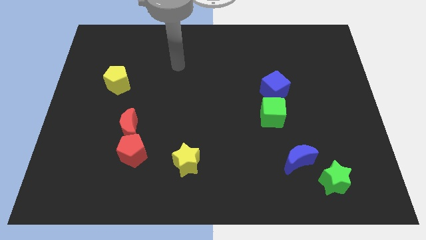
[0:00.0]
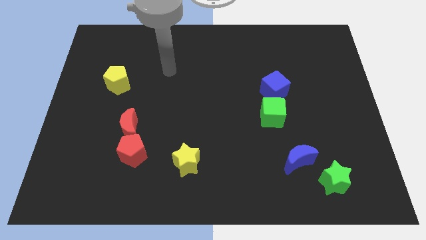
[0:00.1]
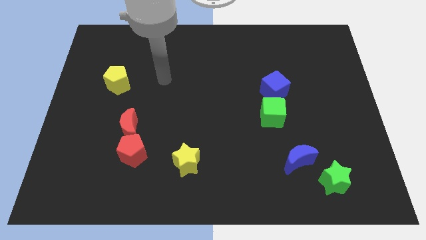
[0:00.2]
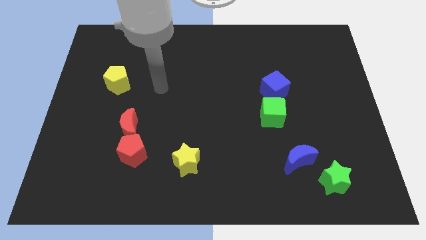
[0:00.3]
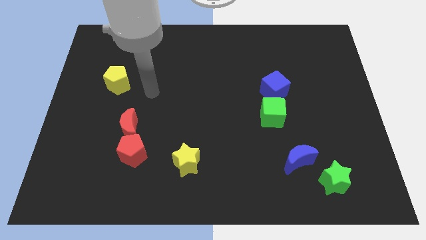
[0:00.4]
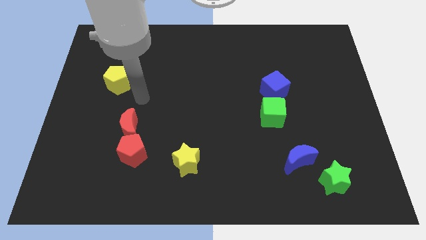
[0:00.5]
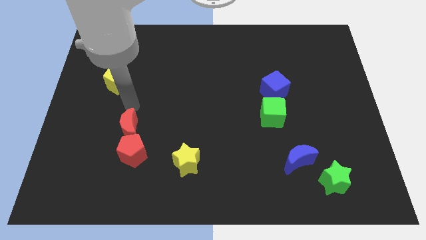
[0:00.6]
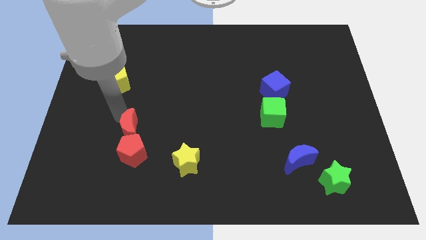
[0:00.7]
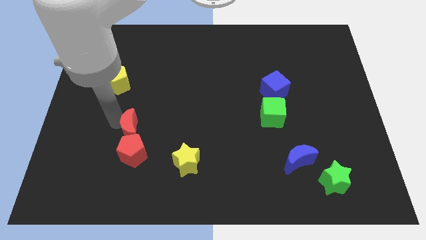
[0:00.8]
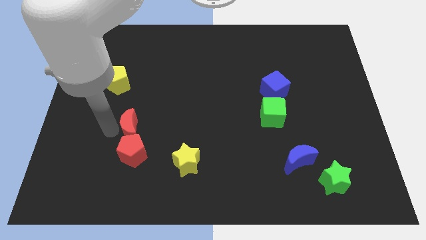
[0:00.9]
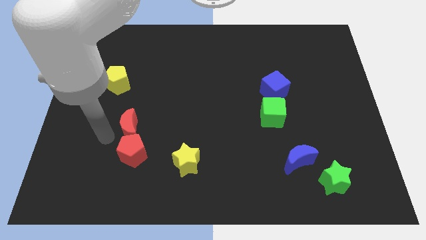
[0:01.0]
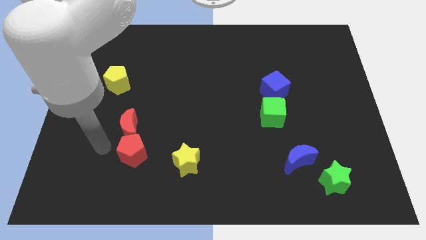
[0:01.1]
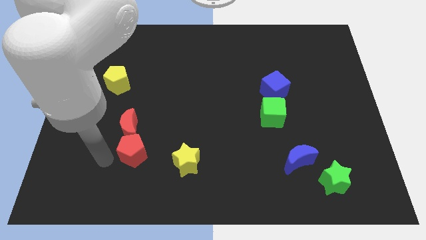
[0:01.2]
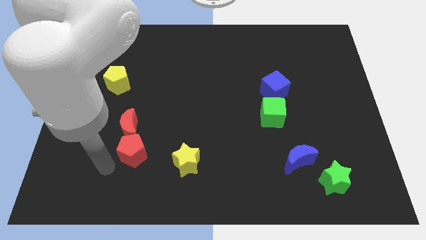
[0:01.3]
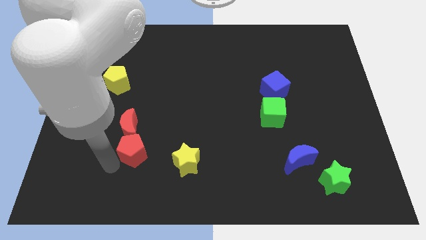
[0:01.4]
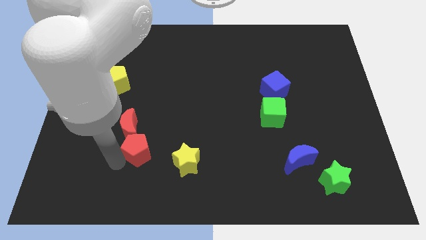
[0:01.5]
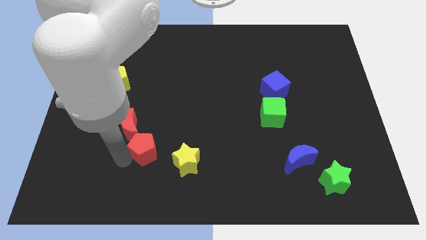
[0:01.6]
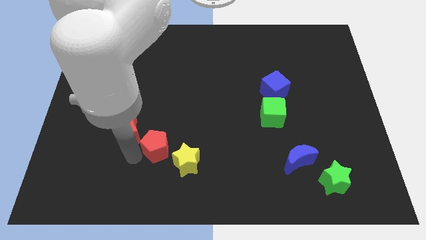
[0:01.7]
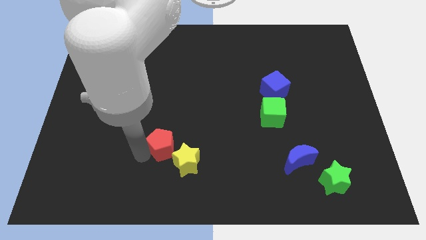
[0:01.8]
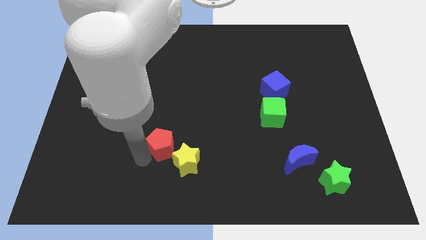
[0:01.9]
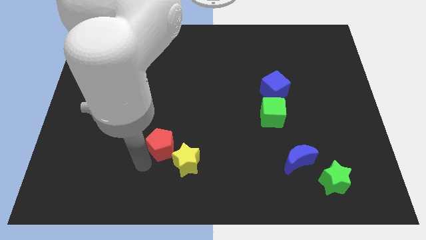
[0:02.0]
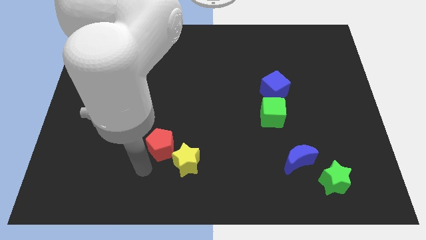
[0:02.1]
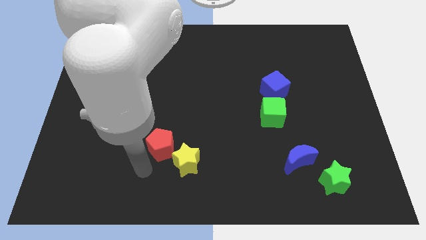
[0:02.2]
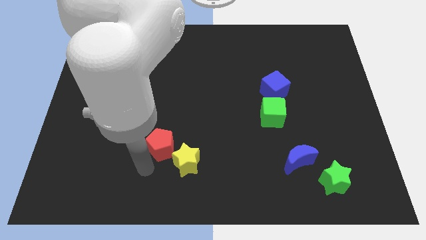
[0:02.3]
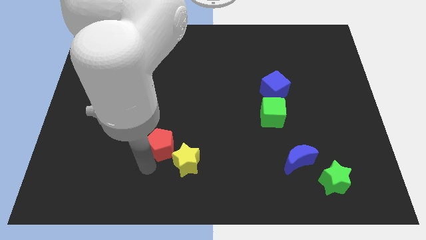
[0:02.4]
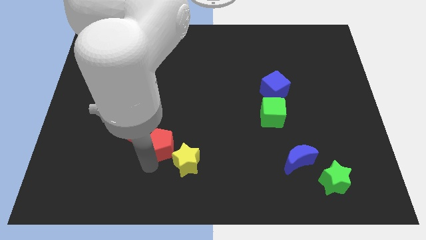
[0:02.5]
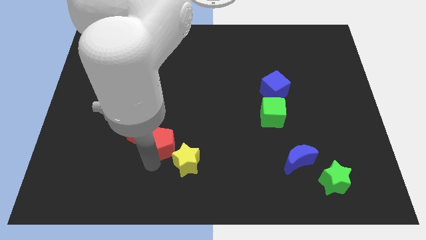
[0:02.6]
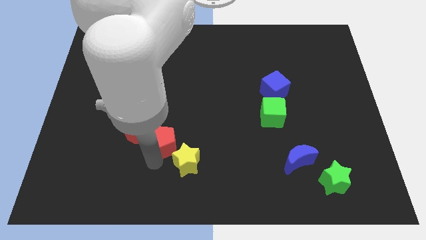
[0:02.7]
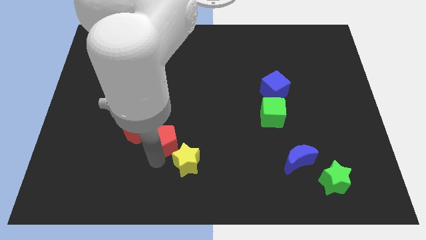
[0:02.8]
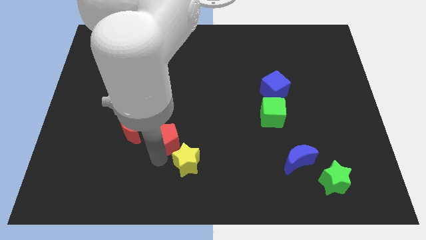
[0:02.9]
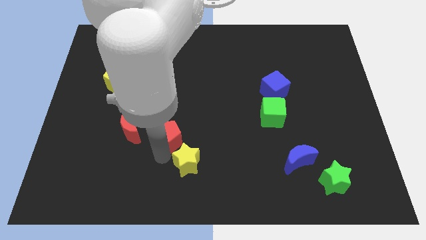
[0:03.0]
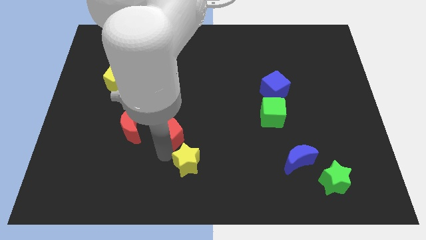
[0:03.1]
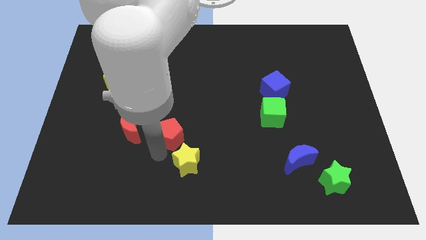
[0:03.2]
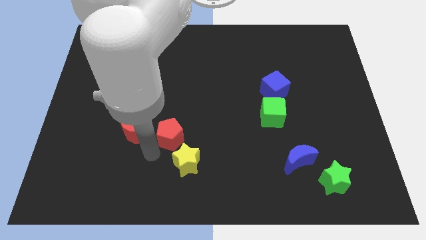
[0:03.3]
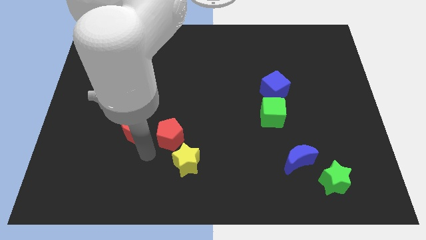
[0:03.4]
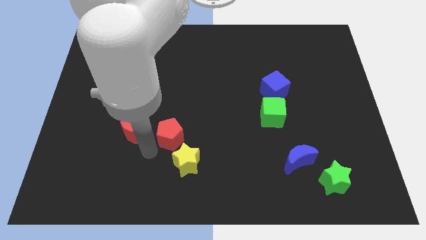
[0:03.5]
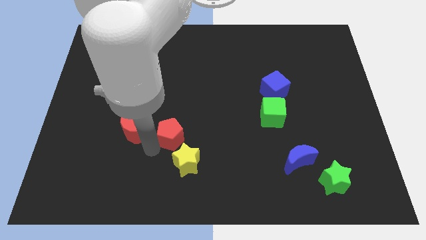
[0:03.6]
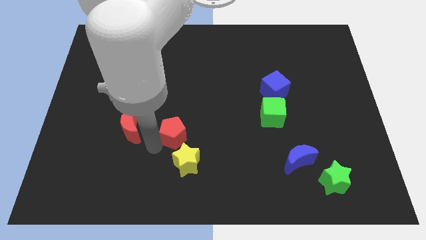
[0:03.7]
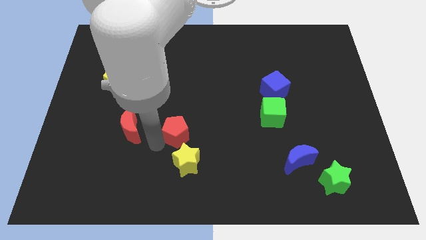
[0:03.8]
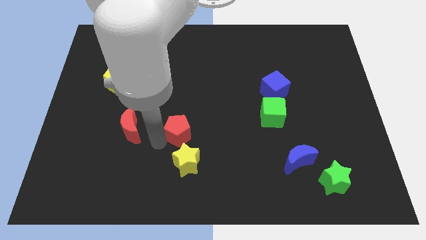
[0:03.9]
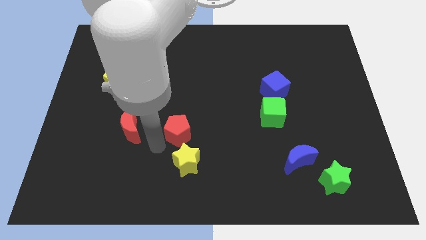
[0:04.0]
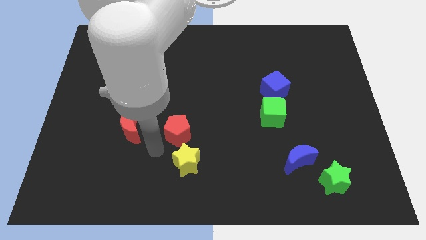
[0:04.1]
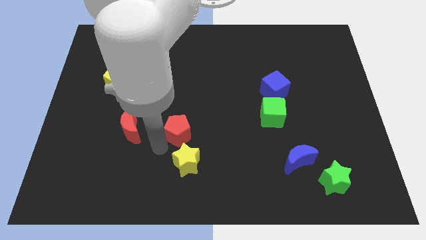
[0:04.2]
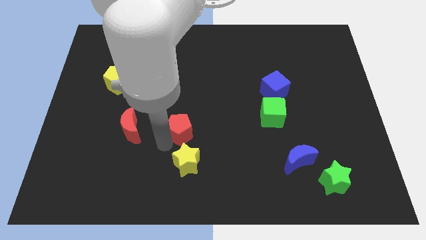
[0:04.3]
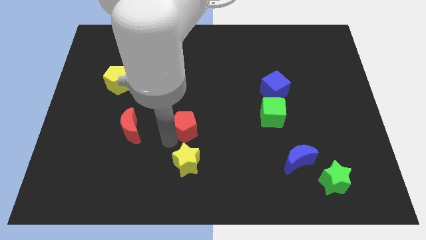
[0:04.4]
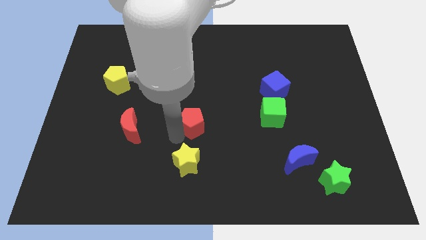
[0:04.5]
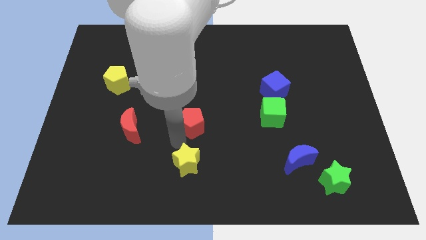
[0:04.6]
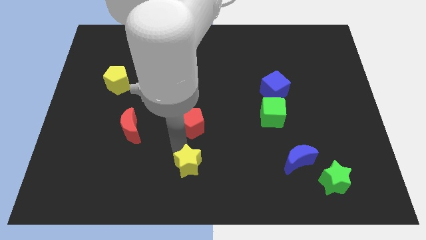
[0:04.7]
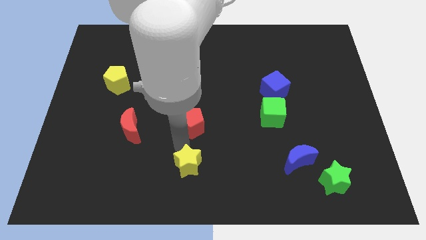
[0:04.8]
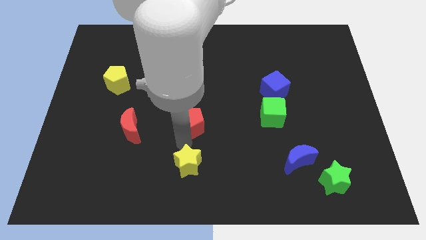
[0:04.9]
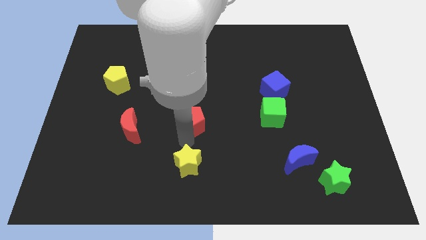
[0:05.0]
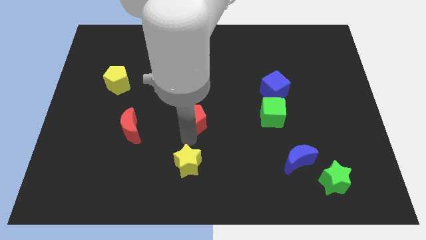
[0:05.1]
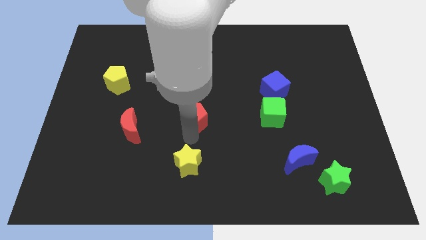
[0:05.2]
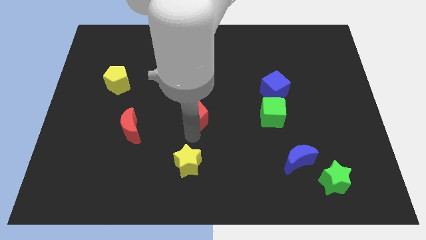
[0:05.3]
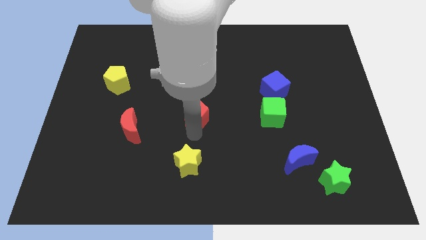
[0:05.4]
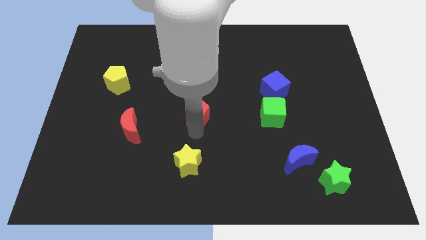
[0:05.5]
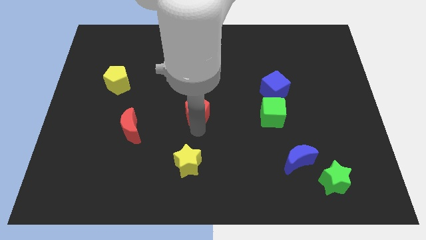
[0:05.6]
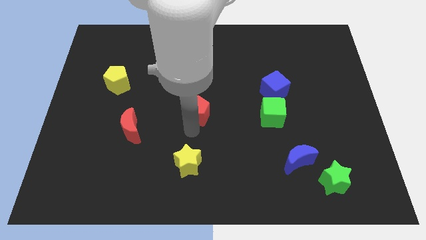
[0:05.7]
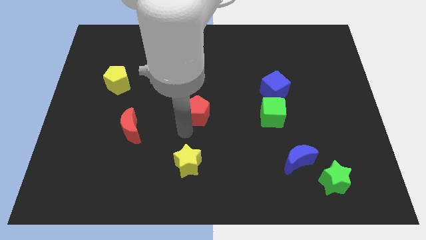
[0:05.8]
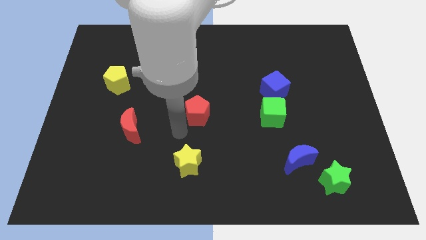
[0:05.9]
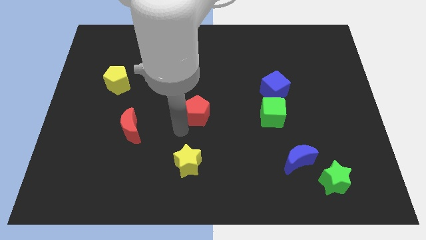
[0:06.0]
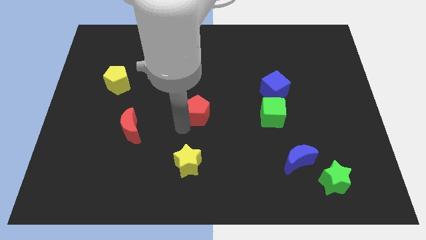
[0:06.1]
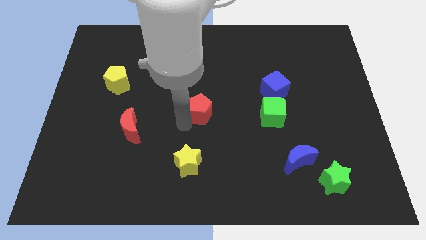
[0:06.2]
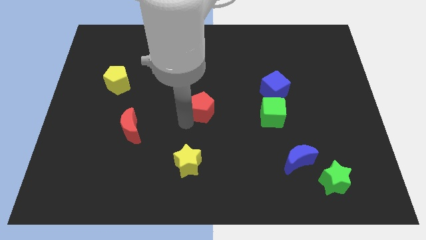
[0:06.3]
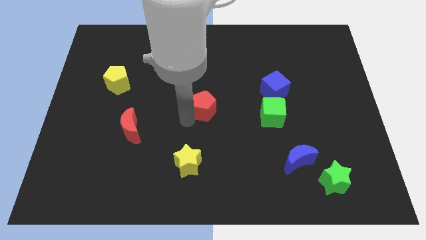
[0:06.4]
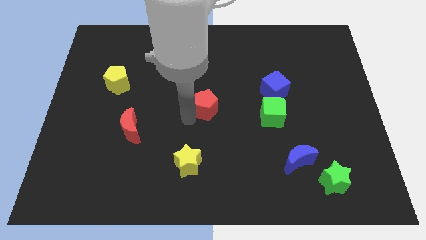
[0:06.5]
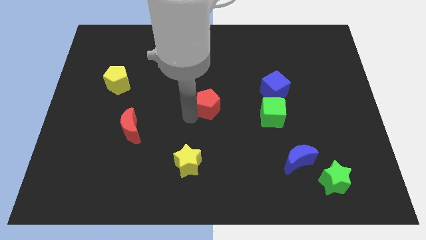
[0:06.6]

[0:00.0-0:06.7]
slide the red pentagon up and right diagonally

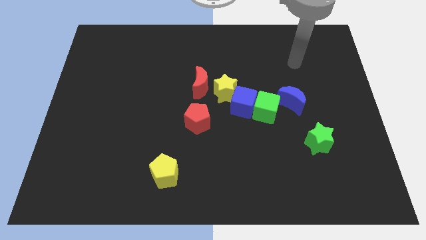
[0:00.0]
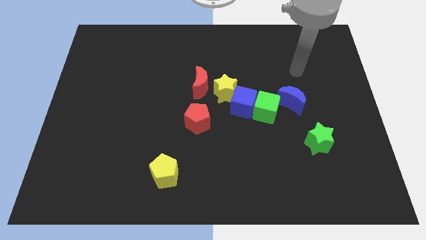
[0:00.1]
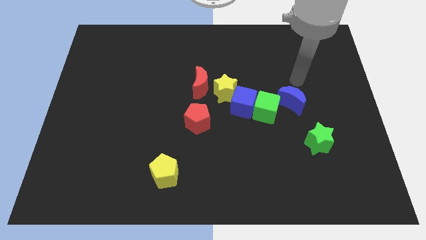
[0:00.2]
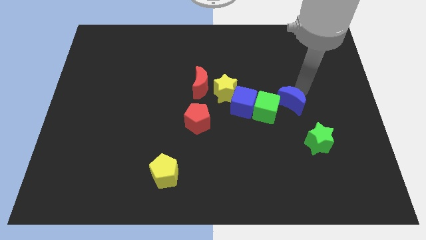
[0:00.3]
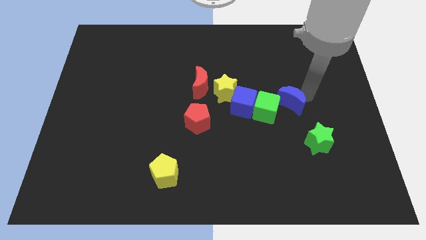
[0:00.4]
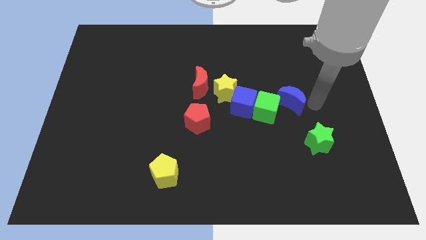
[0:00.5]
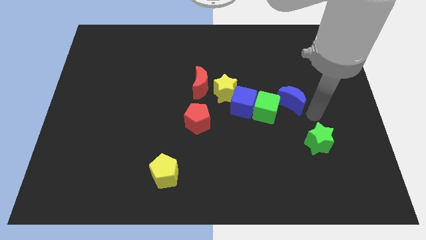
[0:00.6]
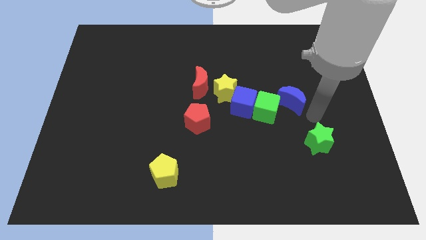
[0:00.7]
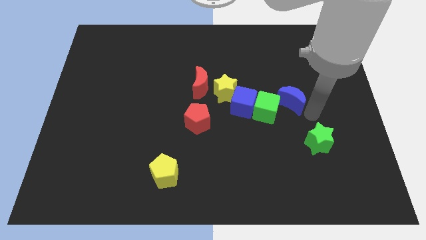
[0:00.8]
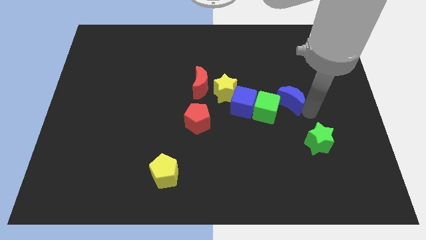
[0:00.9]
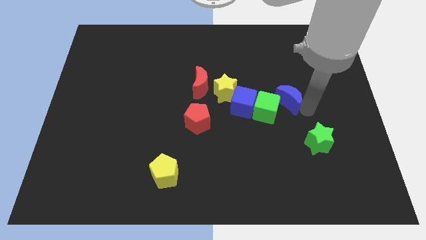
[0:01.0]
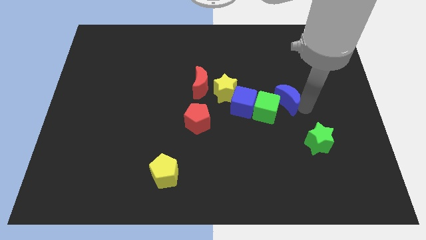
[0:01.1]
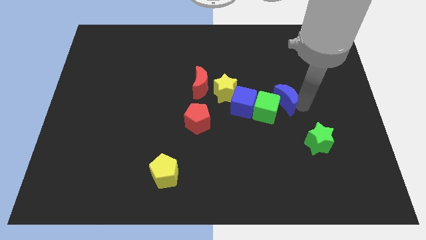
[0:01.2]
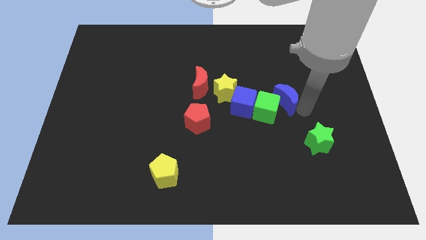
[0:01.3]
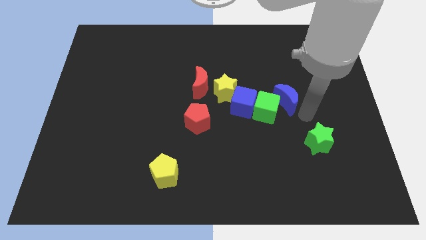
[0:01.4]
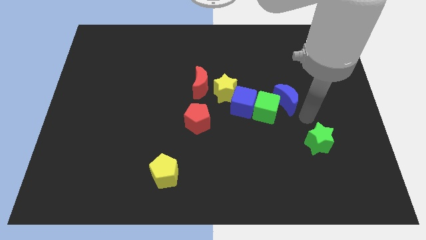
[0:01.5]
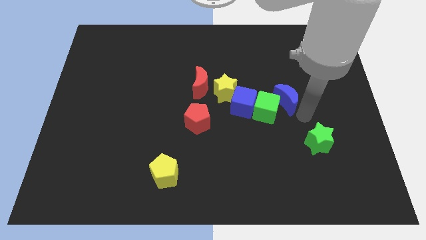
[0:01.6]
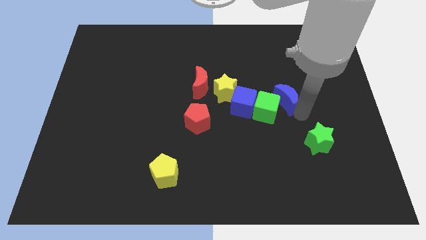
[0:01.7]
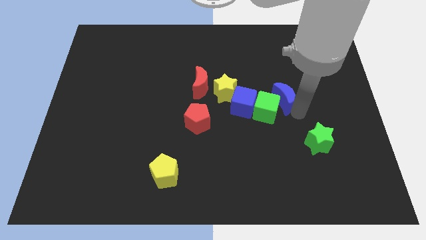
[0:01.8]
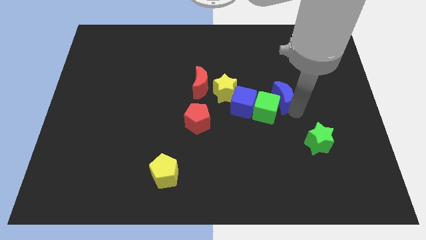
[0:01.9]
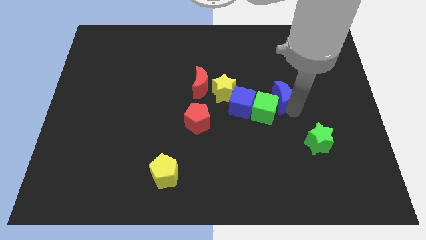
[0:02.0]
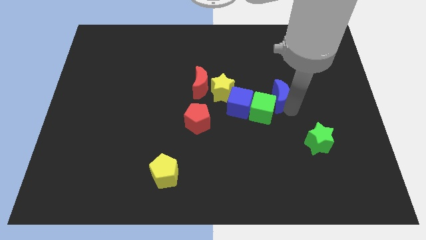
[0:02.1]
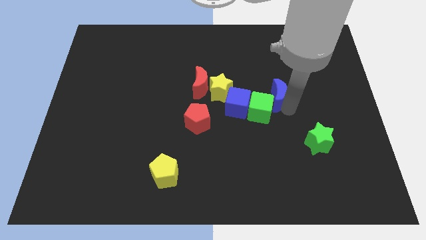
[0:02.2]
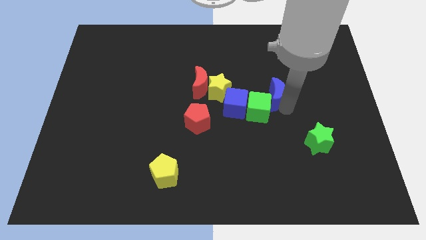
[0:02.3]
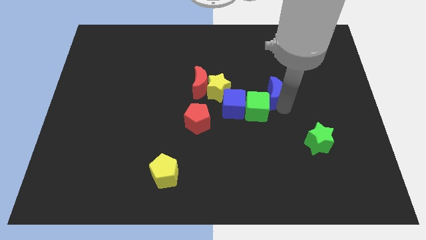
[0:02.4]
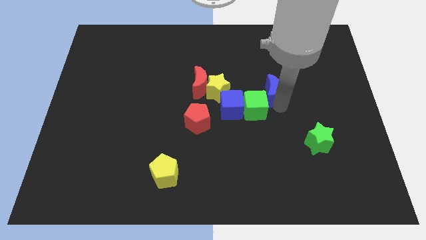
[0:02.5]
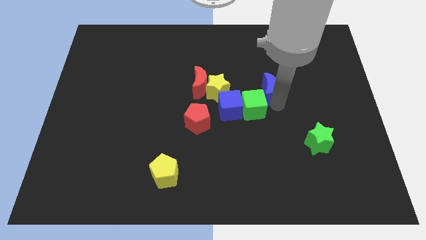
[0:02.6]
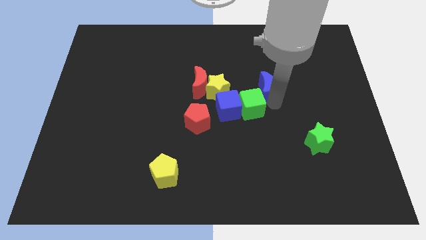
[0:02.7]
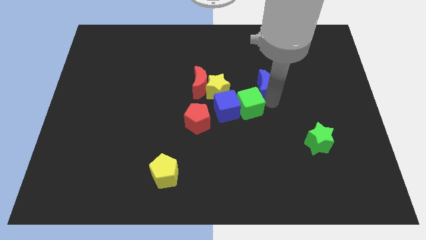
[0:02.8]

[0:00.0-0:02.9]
slightly push the blue moon upwards and then to the left
